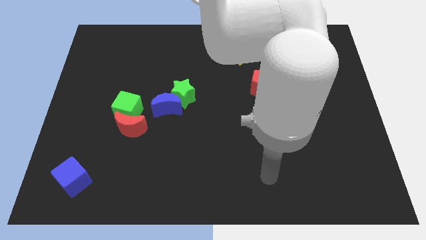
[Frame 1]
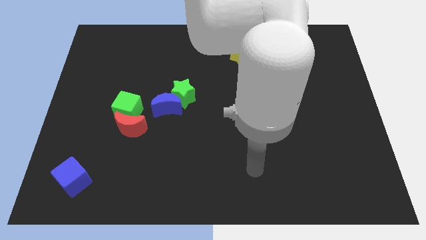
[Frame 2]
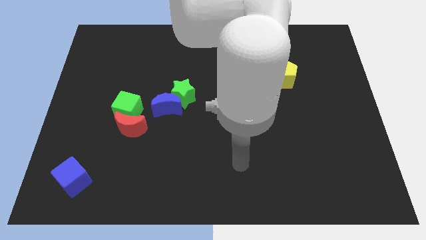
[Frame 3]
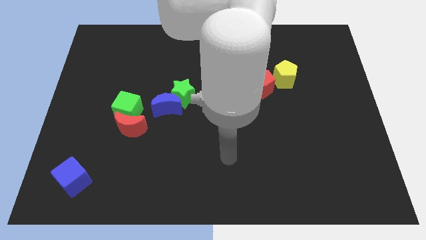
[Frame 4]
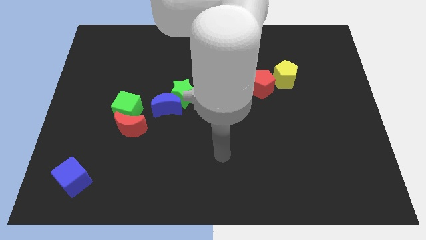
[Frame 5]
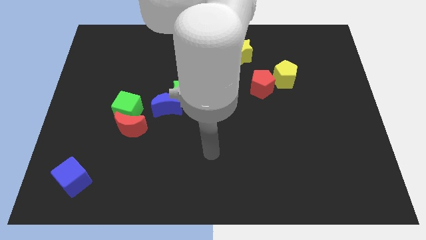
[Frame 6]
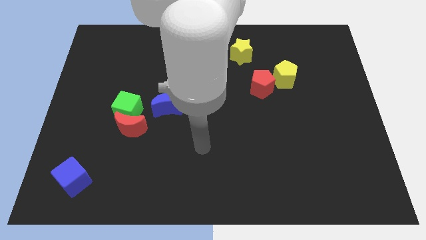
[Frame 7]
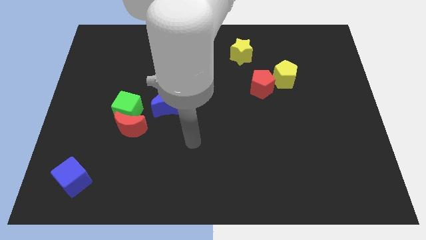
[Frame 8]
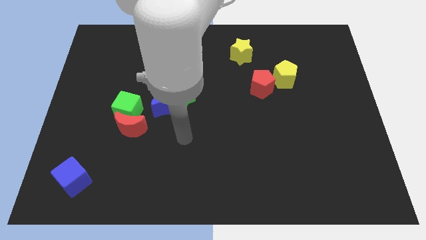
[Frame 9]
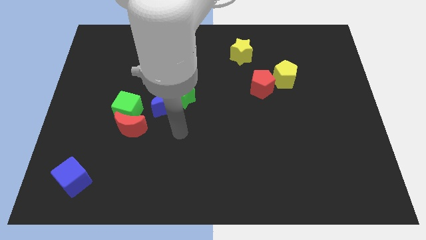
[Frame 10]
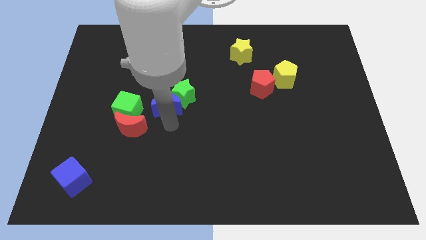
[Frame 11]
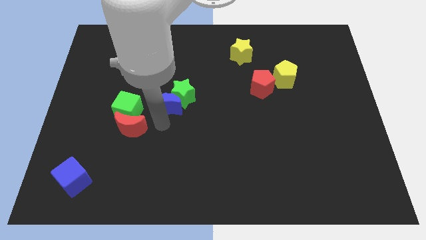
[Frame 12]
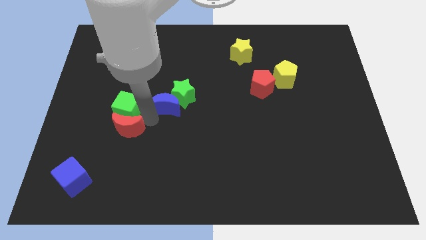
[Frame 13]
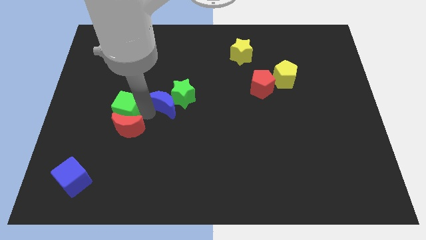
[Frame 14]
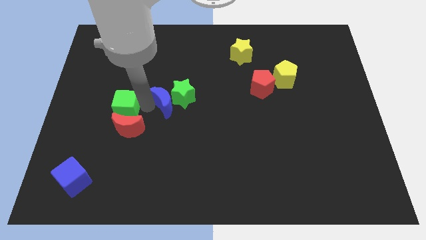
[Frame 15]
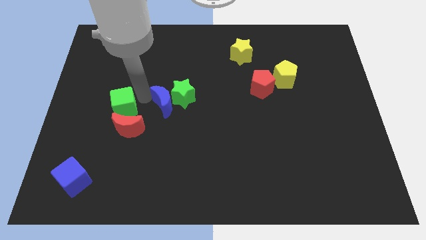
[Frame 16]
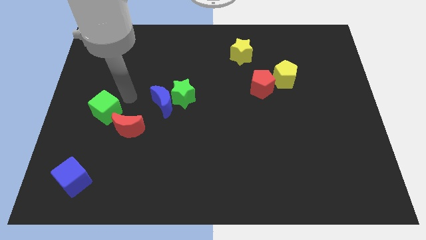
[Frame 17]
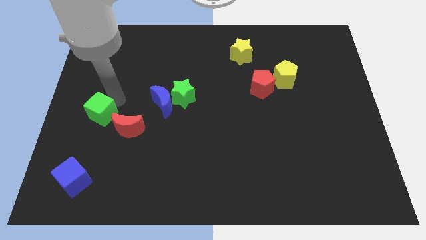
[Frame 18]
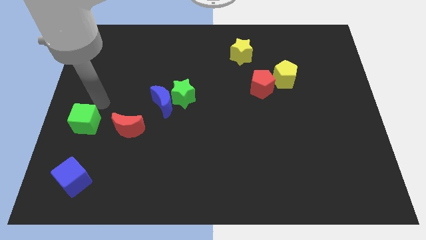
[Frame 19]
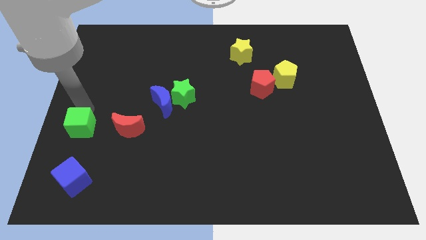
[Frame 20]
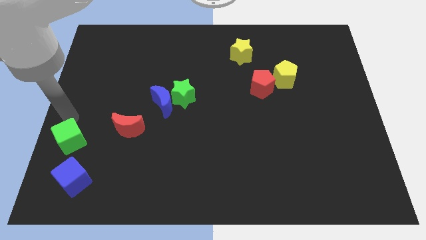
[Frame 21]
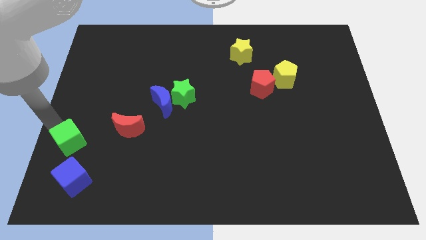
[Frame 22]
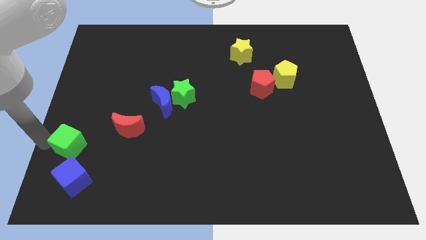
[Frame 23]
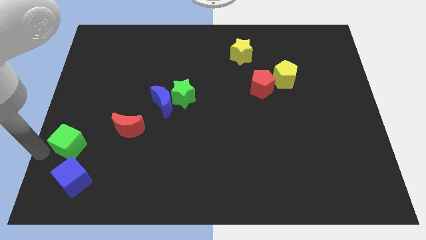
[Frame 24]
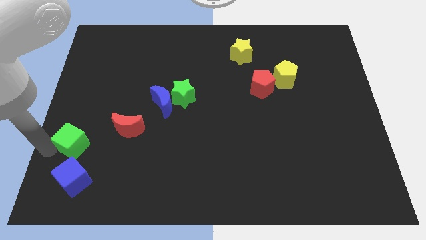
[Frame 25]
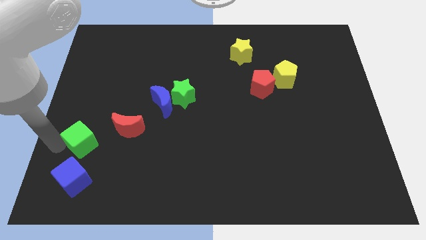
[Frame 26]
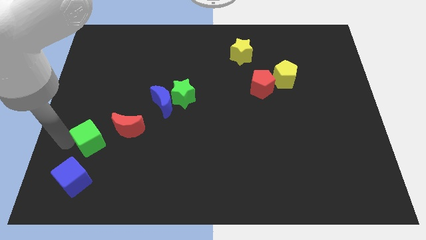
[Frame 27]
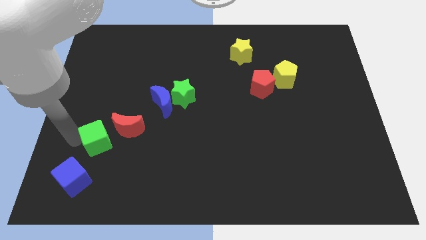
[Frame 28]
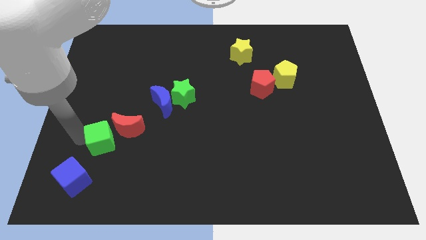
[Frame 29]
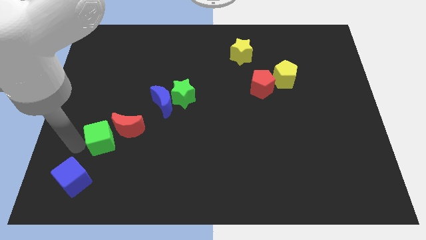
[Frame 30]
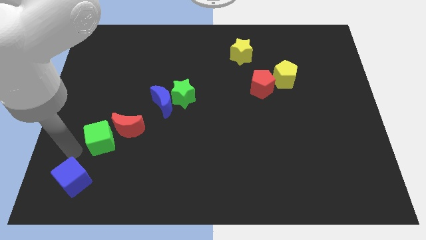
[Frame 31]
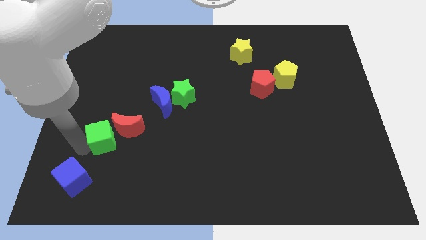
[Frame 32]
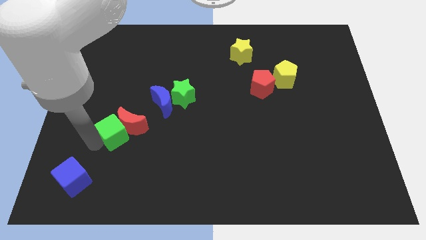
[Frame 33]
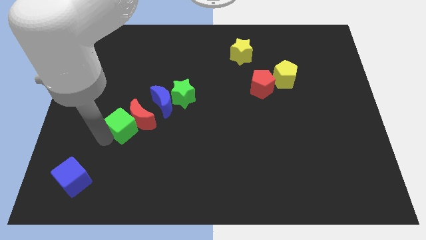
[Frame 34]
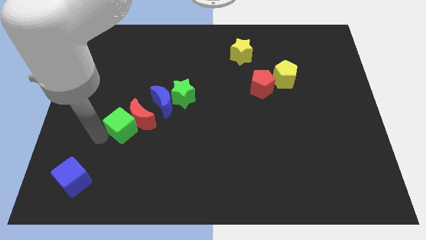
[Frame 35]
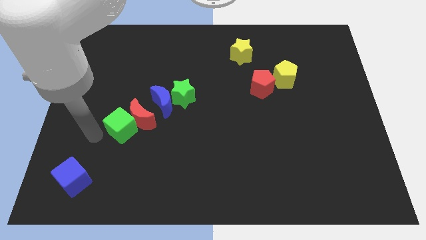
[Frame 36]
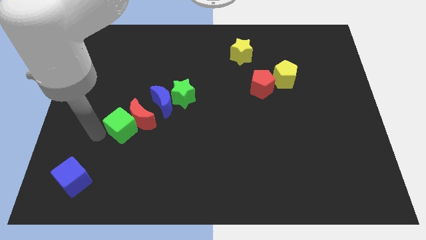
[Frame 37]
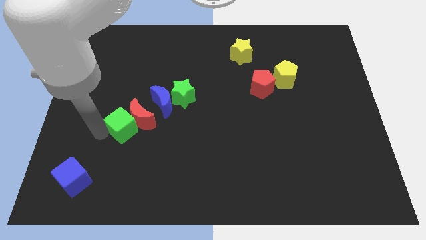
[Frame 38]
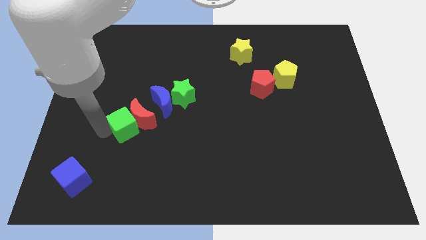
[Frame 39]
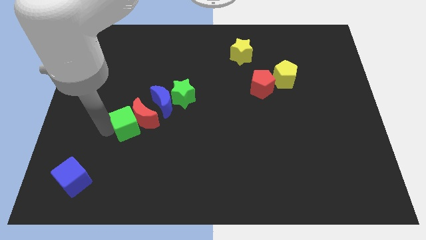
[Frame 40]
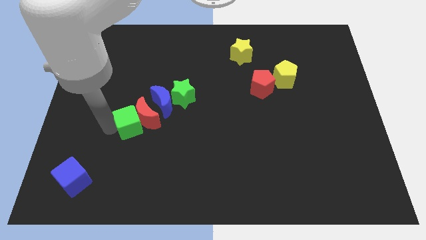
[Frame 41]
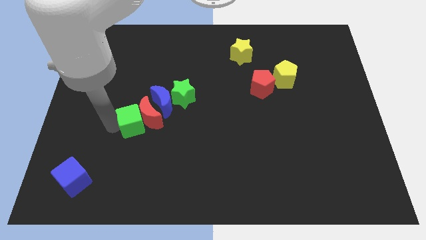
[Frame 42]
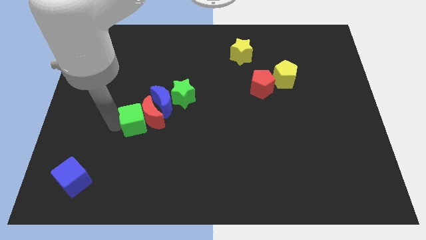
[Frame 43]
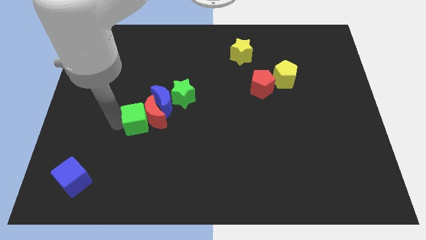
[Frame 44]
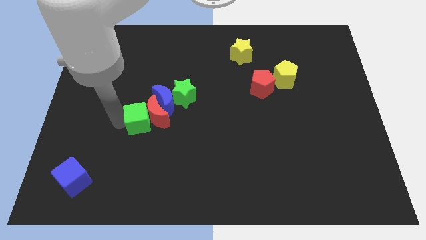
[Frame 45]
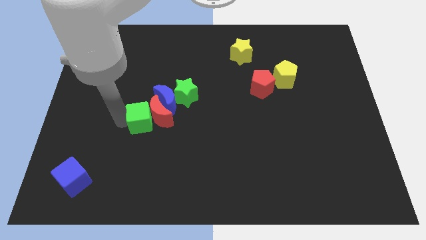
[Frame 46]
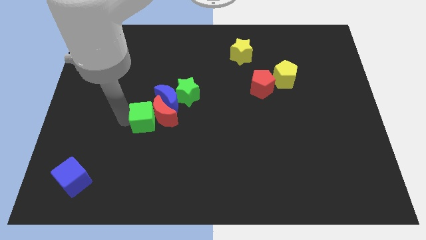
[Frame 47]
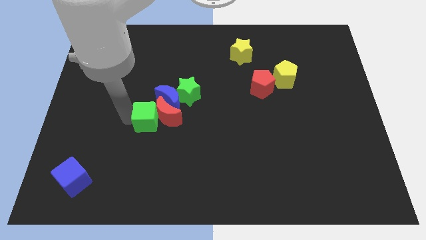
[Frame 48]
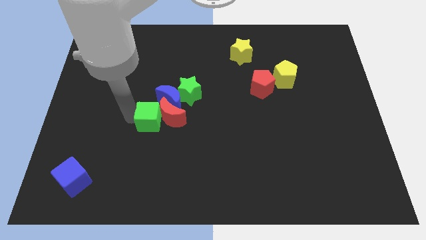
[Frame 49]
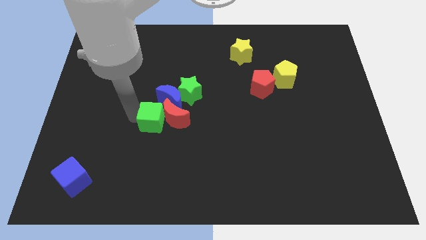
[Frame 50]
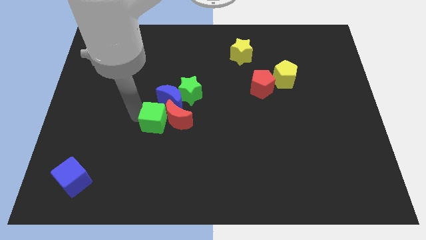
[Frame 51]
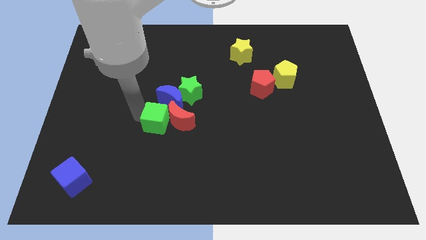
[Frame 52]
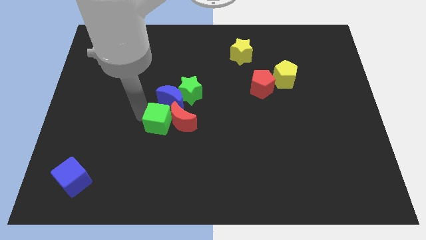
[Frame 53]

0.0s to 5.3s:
move the green cube a bit to the right

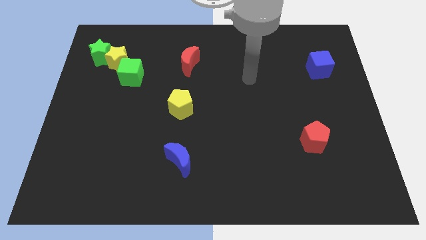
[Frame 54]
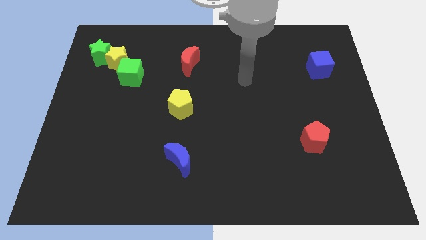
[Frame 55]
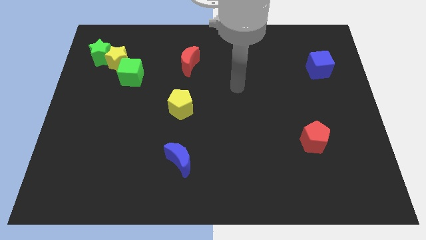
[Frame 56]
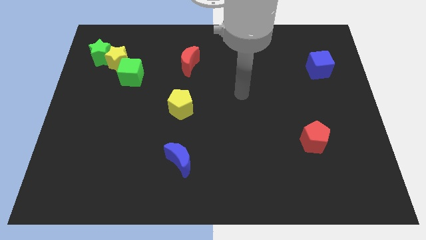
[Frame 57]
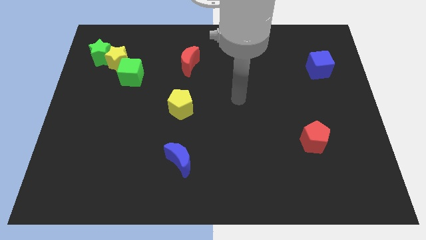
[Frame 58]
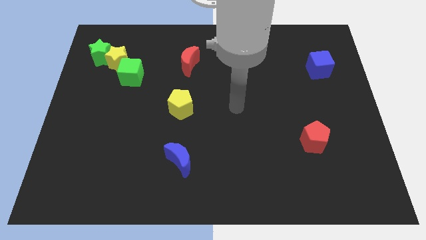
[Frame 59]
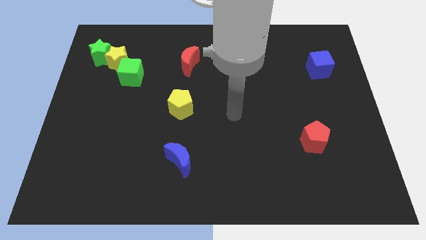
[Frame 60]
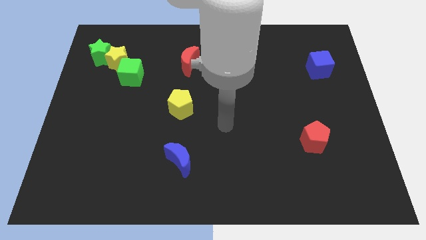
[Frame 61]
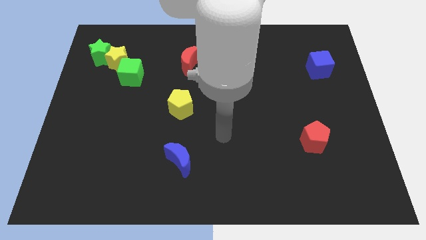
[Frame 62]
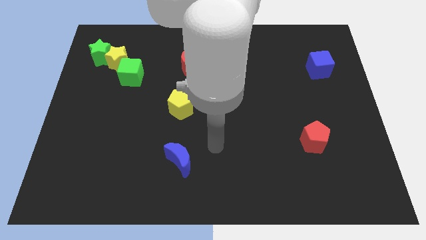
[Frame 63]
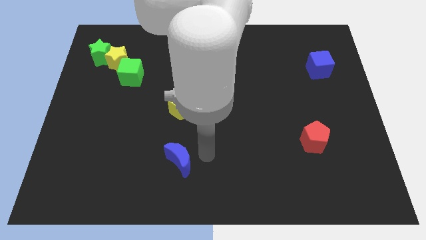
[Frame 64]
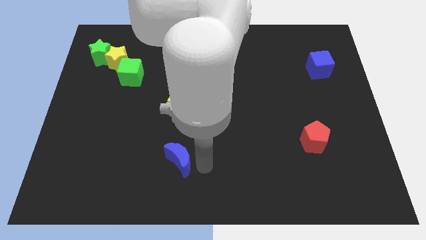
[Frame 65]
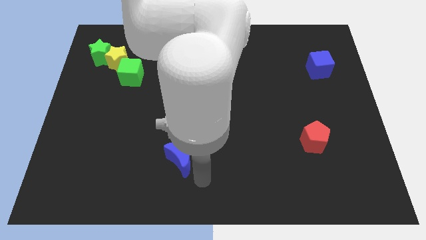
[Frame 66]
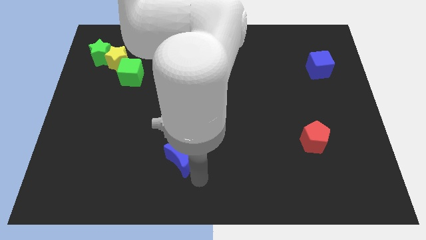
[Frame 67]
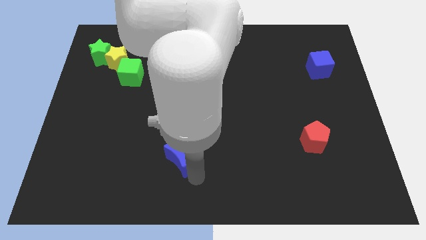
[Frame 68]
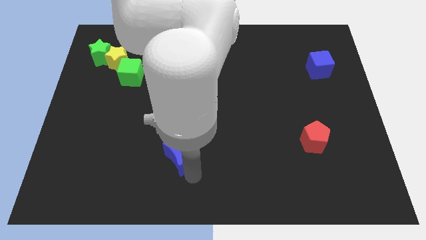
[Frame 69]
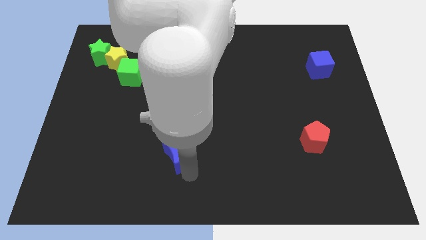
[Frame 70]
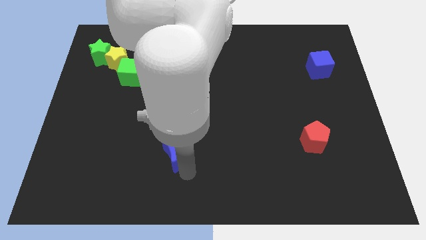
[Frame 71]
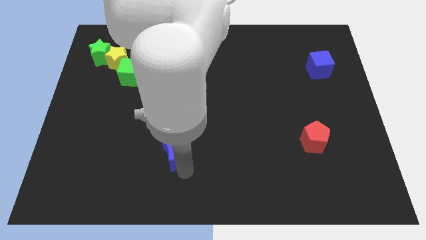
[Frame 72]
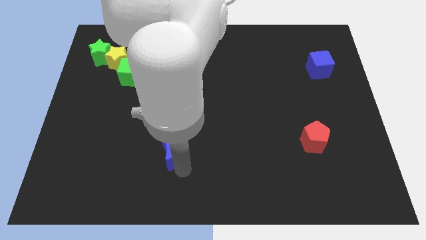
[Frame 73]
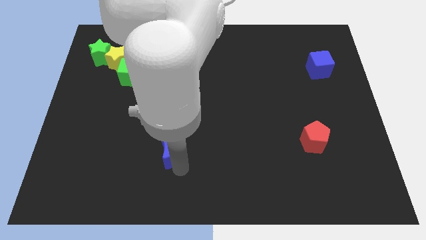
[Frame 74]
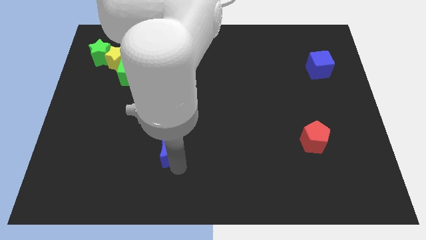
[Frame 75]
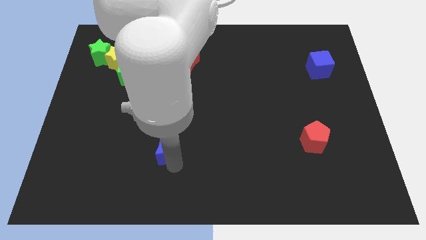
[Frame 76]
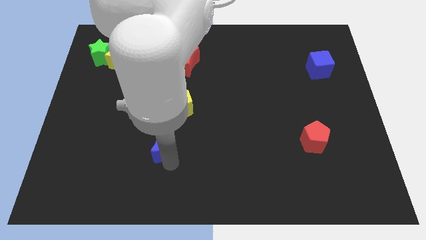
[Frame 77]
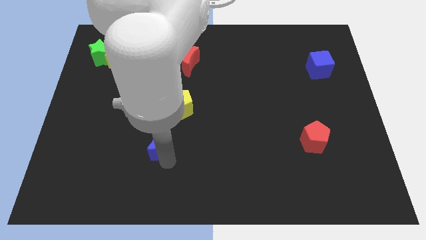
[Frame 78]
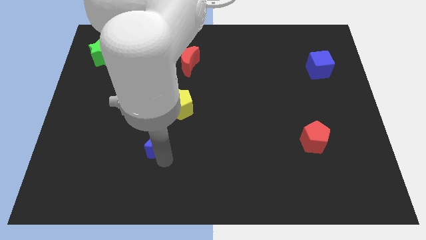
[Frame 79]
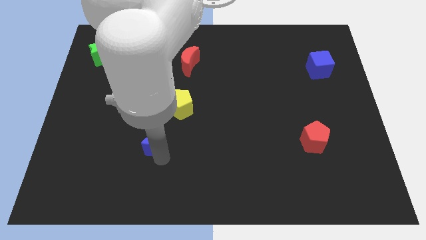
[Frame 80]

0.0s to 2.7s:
push the blue moon a bit diagonally up and to the left
